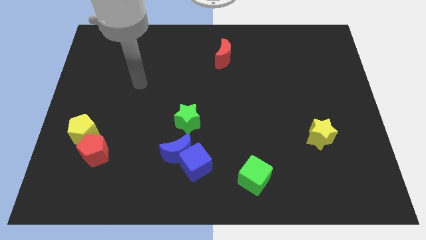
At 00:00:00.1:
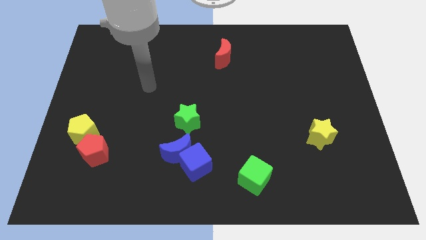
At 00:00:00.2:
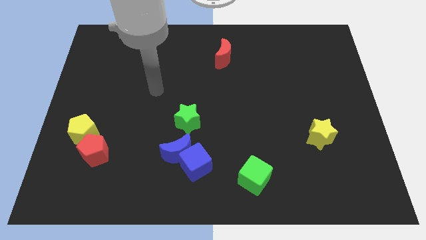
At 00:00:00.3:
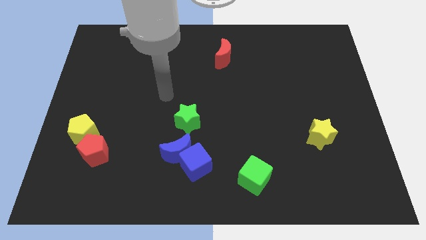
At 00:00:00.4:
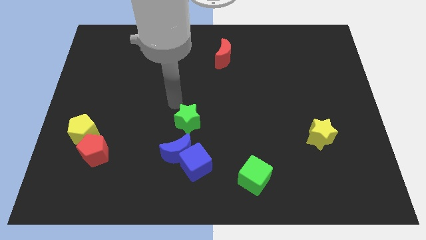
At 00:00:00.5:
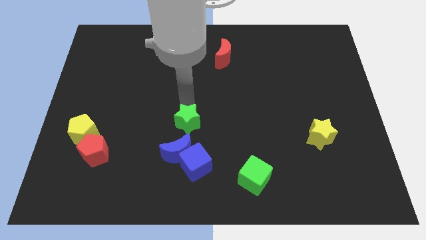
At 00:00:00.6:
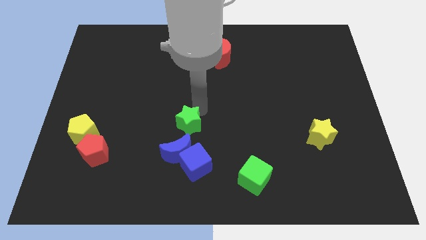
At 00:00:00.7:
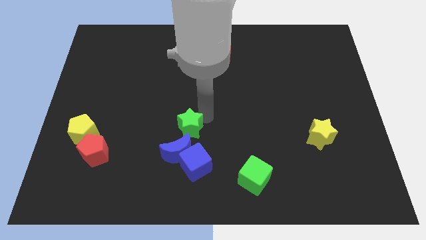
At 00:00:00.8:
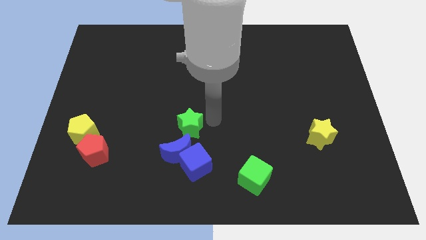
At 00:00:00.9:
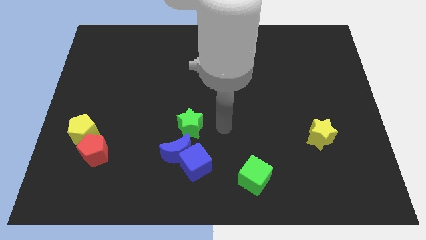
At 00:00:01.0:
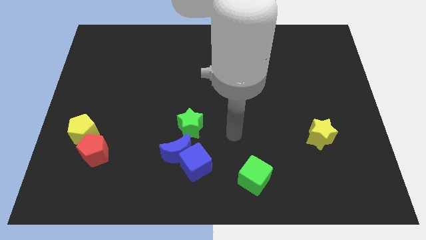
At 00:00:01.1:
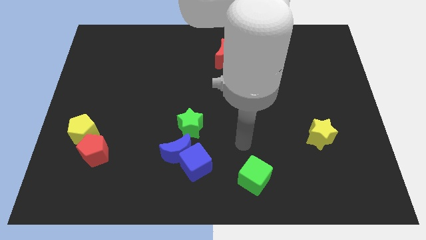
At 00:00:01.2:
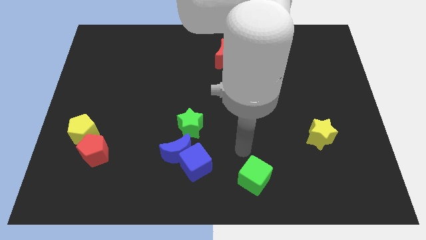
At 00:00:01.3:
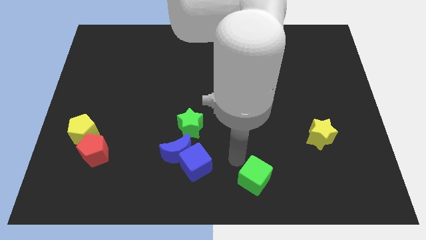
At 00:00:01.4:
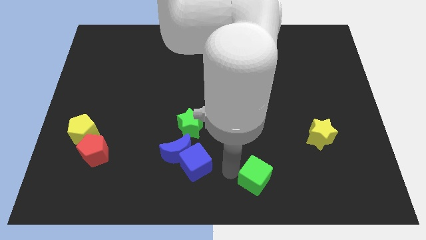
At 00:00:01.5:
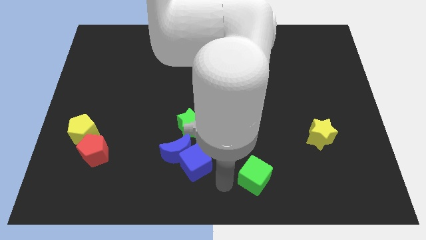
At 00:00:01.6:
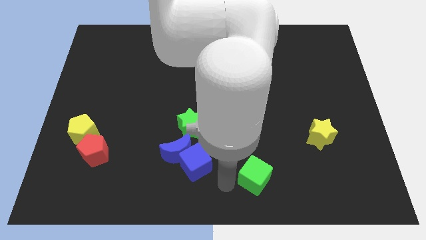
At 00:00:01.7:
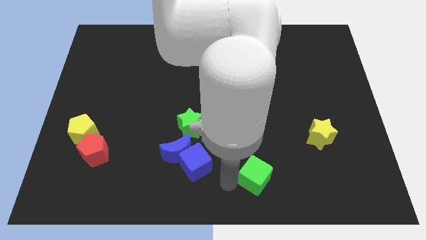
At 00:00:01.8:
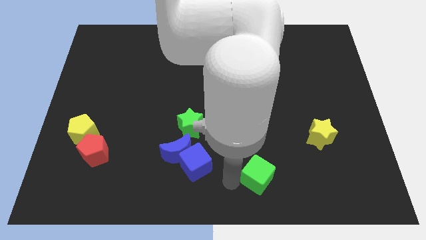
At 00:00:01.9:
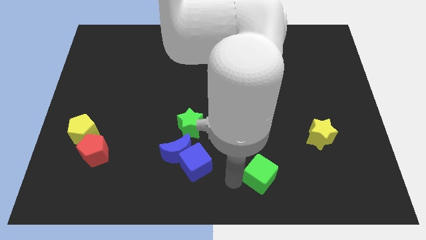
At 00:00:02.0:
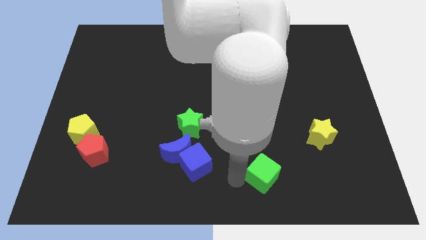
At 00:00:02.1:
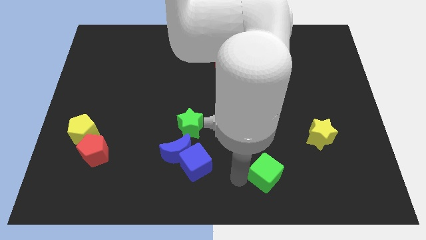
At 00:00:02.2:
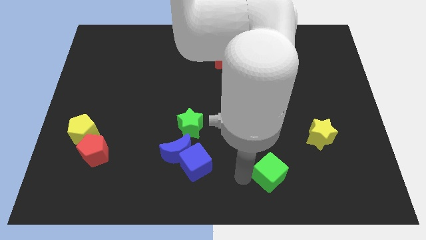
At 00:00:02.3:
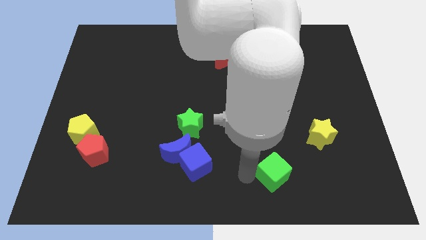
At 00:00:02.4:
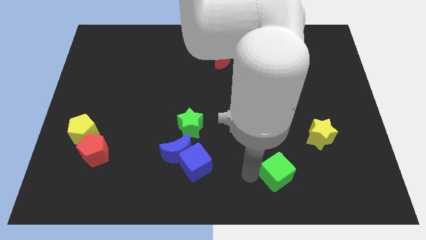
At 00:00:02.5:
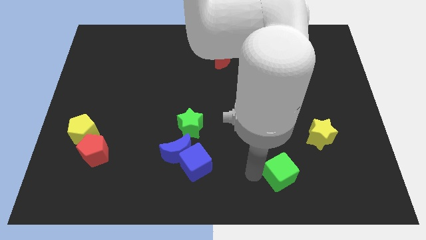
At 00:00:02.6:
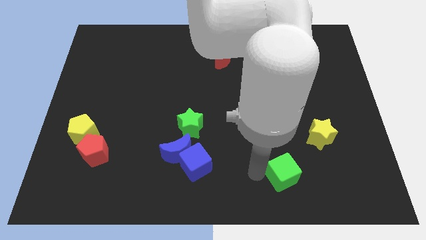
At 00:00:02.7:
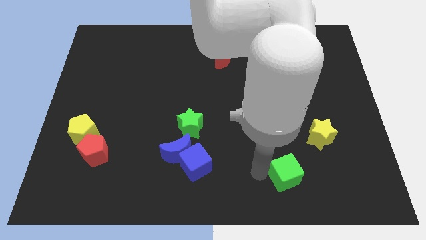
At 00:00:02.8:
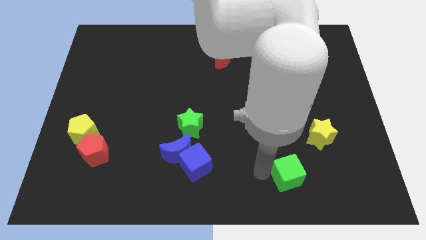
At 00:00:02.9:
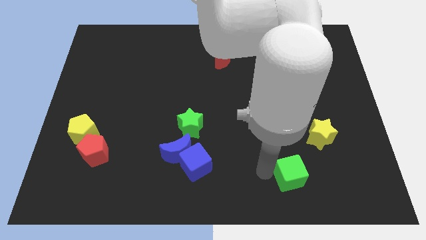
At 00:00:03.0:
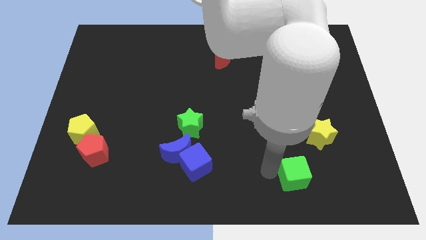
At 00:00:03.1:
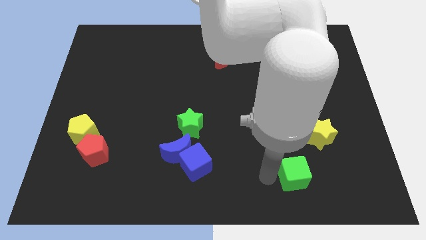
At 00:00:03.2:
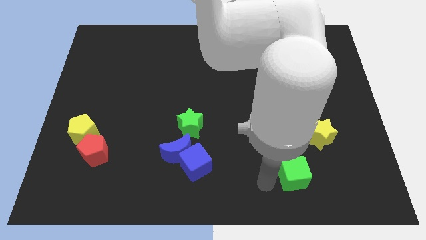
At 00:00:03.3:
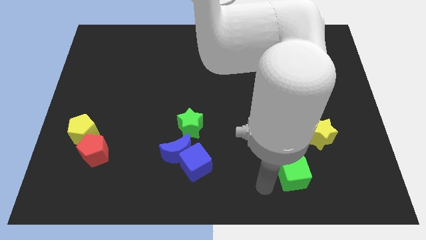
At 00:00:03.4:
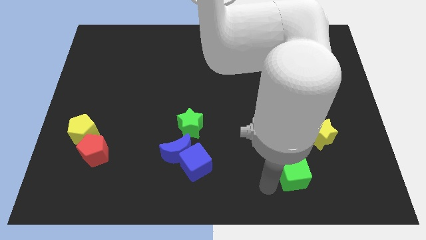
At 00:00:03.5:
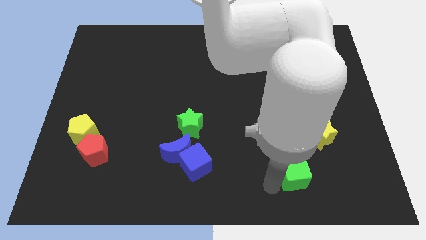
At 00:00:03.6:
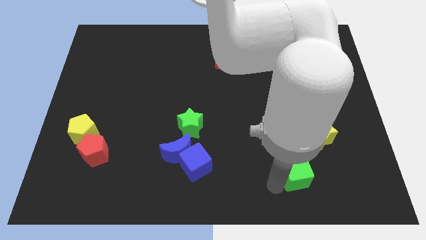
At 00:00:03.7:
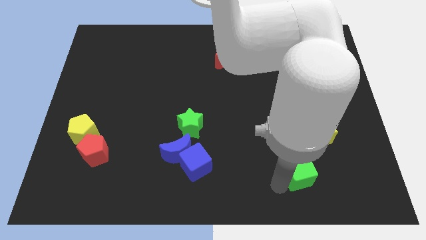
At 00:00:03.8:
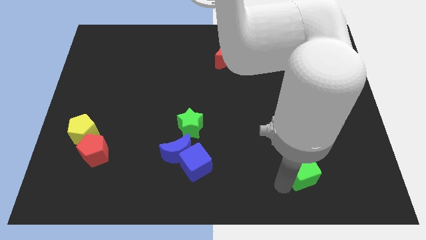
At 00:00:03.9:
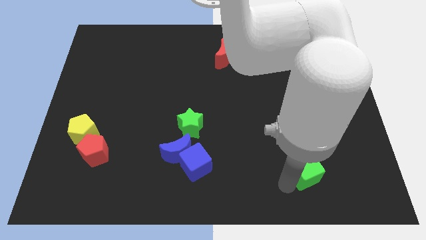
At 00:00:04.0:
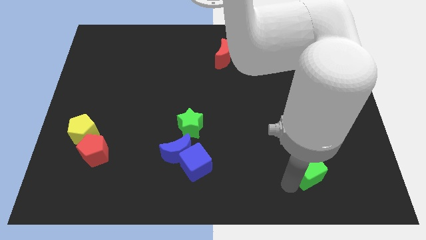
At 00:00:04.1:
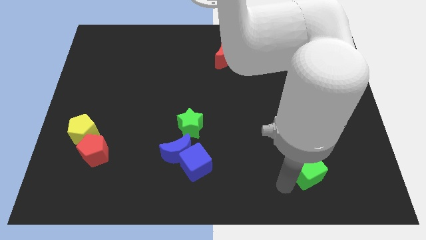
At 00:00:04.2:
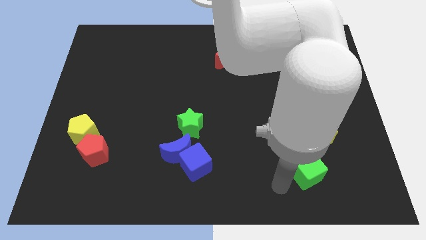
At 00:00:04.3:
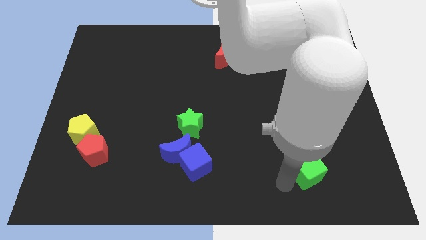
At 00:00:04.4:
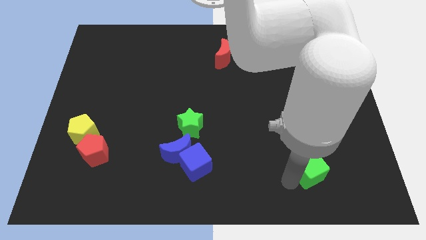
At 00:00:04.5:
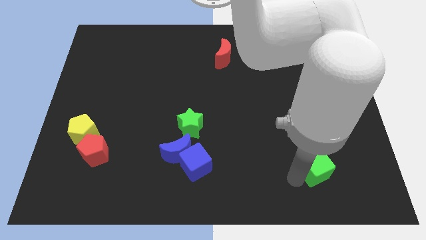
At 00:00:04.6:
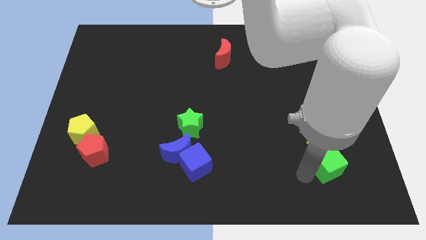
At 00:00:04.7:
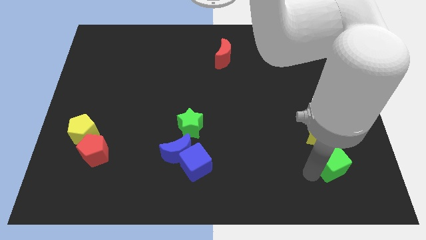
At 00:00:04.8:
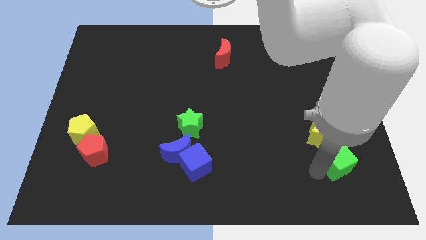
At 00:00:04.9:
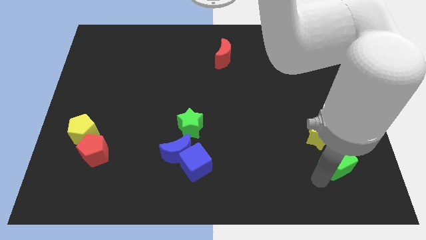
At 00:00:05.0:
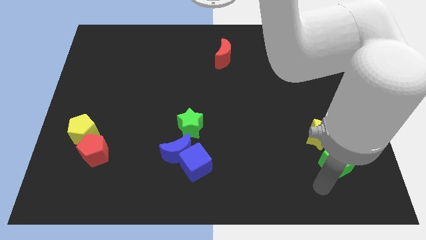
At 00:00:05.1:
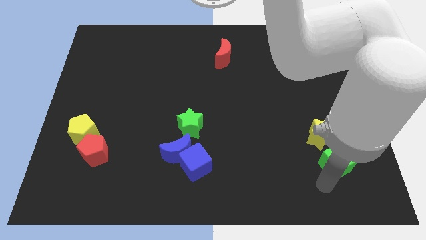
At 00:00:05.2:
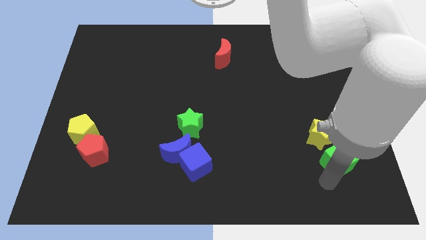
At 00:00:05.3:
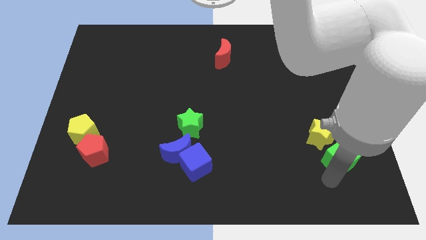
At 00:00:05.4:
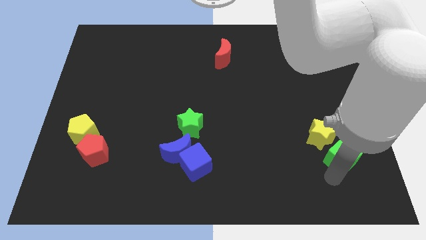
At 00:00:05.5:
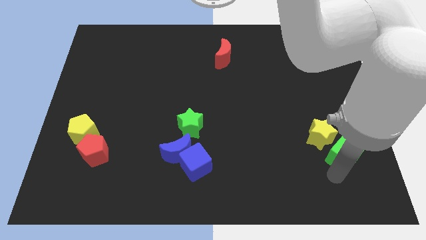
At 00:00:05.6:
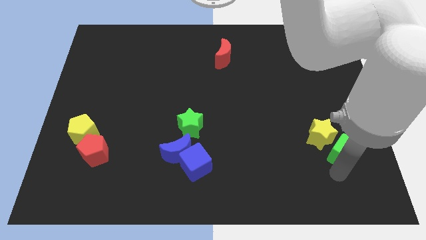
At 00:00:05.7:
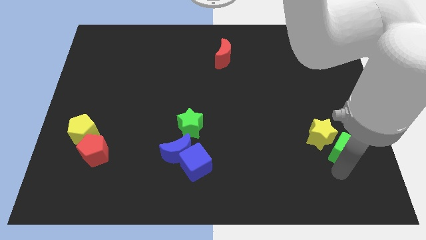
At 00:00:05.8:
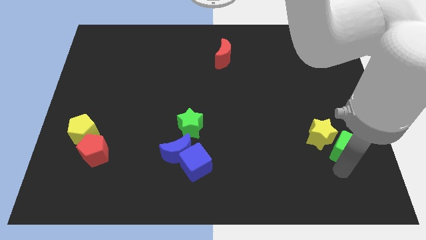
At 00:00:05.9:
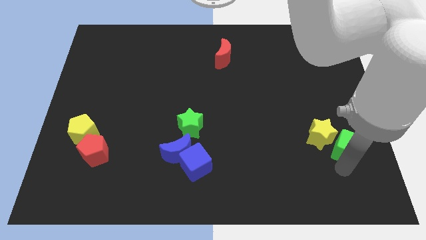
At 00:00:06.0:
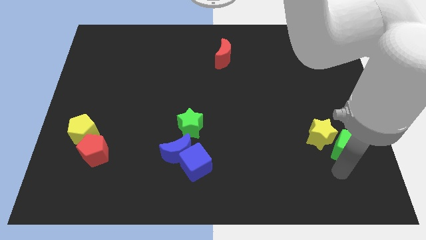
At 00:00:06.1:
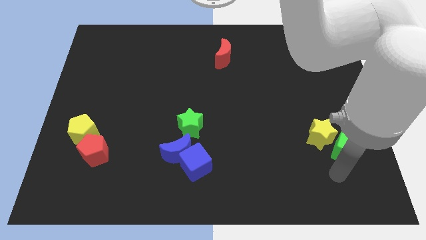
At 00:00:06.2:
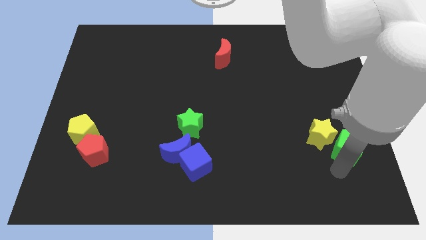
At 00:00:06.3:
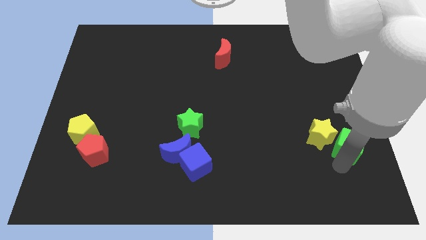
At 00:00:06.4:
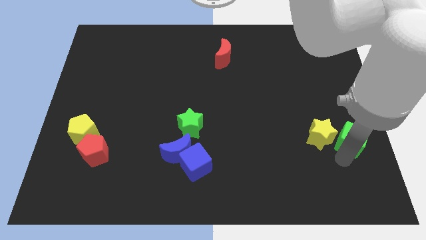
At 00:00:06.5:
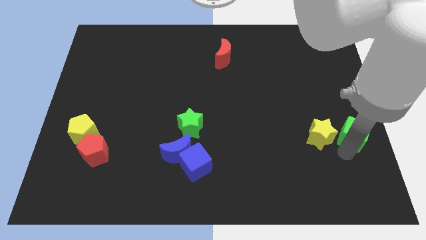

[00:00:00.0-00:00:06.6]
push the green cube to the right side
